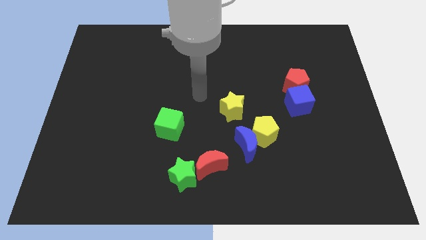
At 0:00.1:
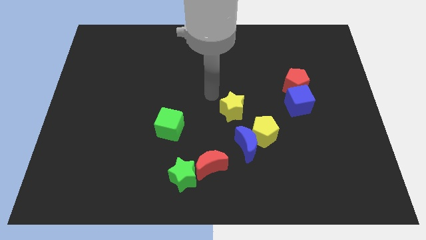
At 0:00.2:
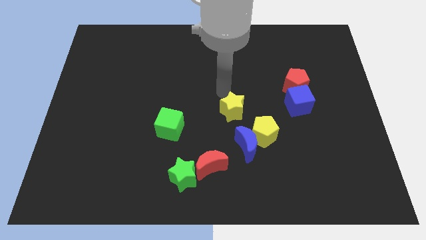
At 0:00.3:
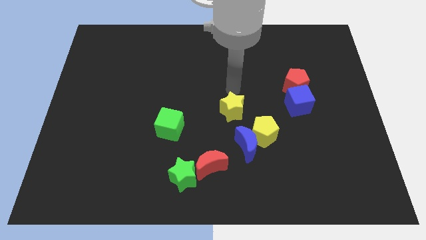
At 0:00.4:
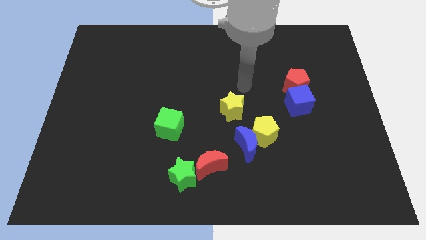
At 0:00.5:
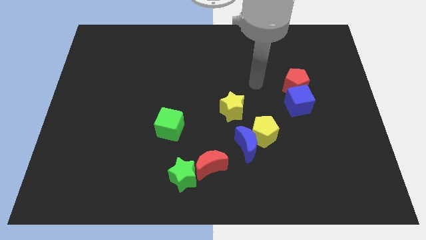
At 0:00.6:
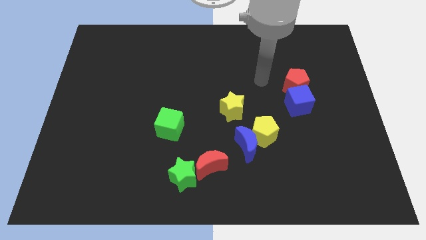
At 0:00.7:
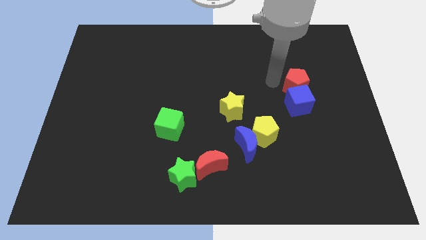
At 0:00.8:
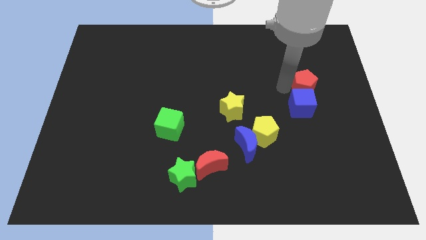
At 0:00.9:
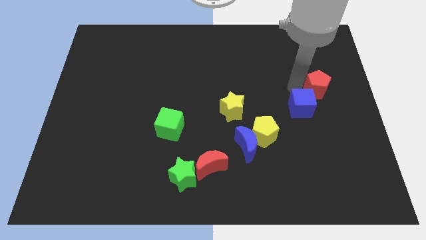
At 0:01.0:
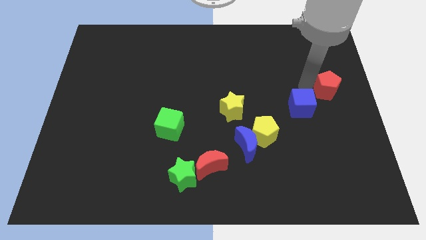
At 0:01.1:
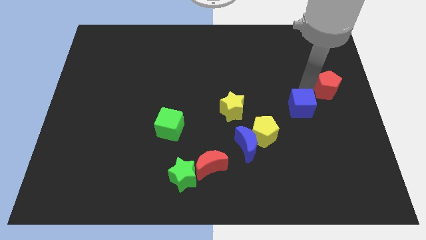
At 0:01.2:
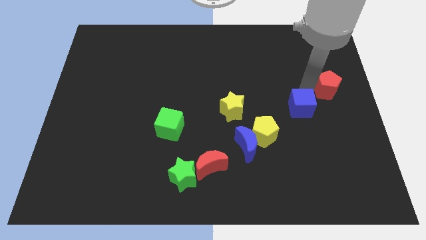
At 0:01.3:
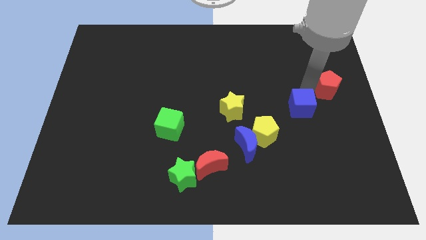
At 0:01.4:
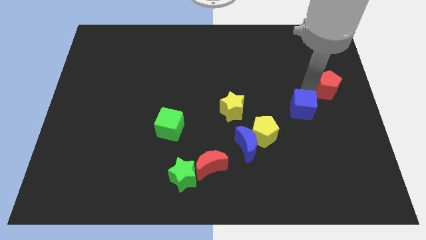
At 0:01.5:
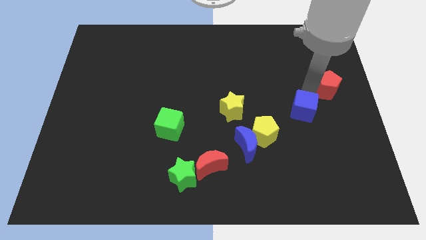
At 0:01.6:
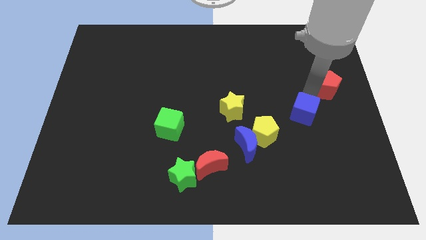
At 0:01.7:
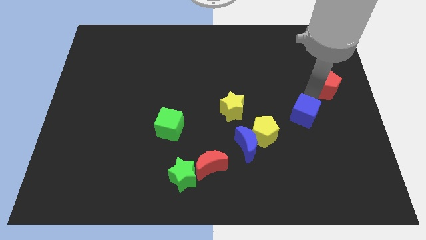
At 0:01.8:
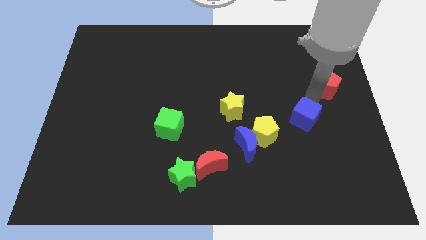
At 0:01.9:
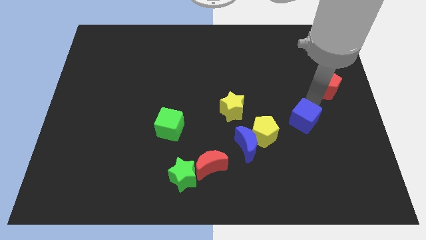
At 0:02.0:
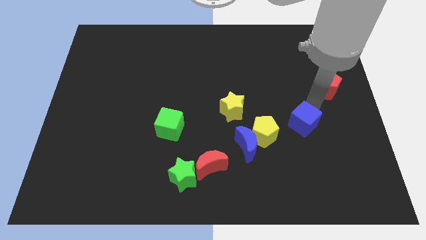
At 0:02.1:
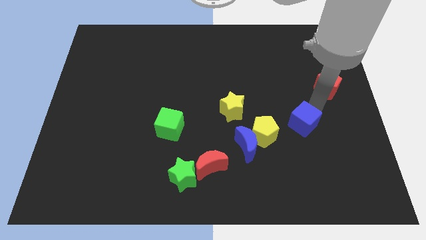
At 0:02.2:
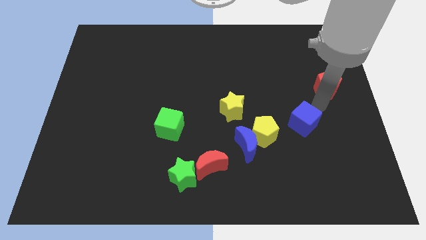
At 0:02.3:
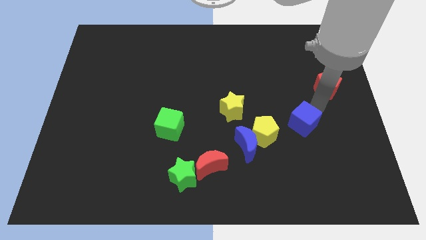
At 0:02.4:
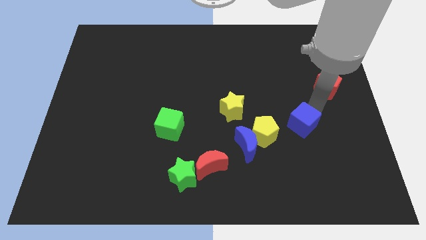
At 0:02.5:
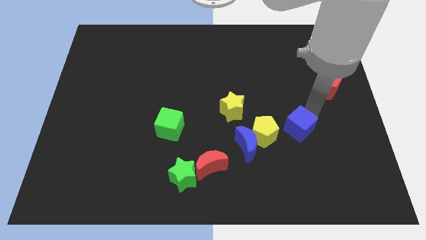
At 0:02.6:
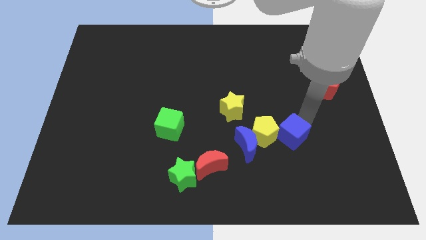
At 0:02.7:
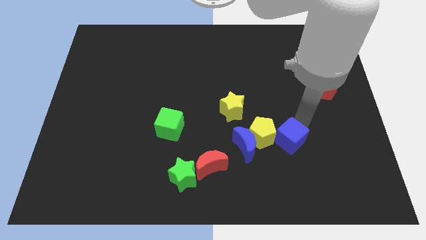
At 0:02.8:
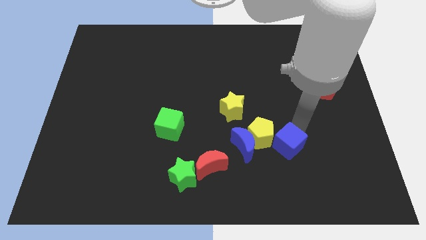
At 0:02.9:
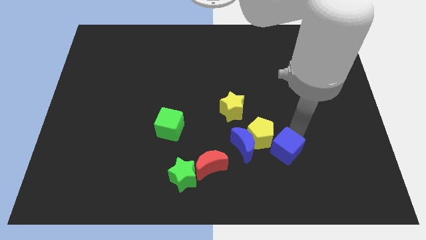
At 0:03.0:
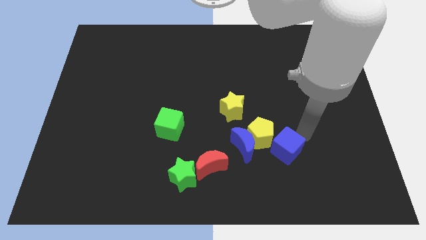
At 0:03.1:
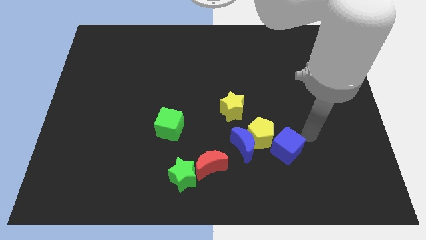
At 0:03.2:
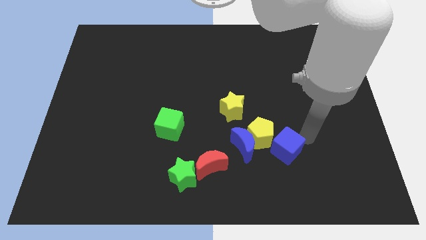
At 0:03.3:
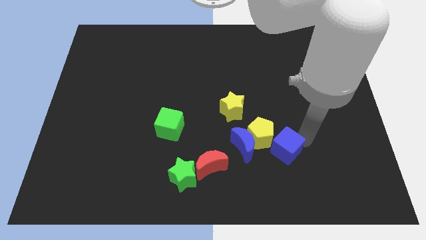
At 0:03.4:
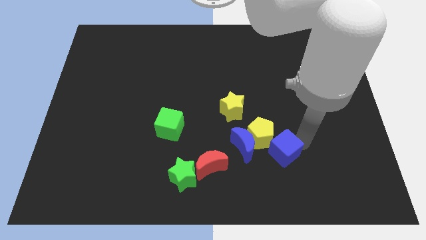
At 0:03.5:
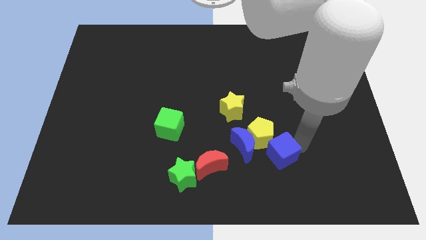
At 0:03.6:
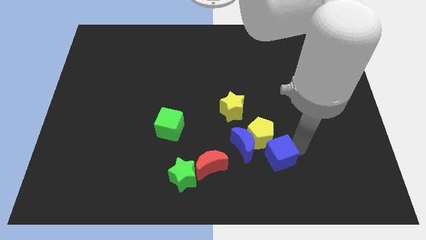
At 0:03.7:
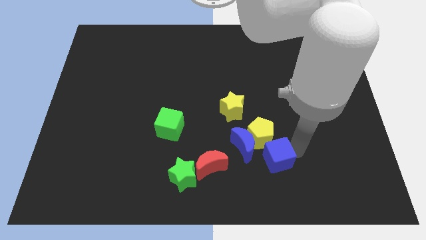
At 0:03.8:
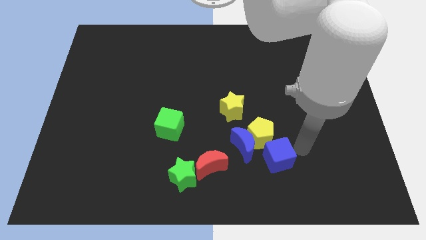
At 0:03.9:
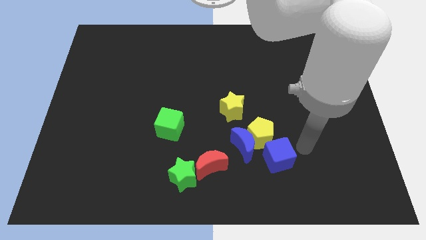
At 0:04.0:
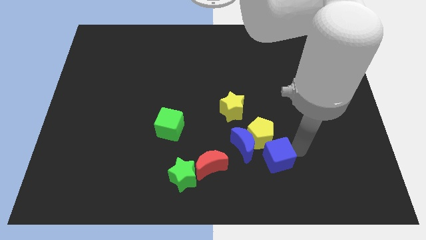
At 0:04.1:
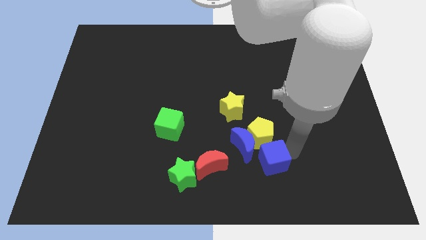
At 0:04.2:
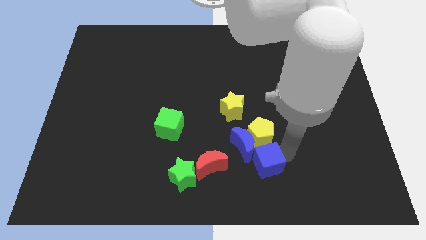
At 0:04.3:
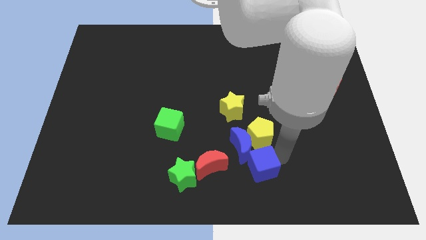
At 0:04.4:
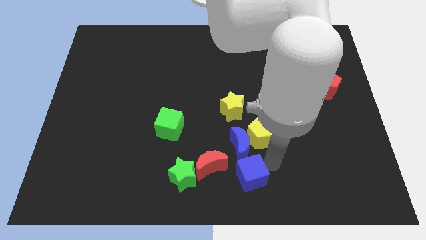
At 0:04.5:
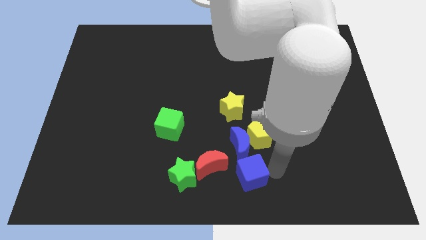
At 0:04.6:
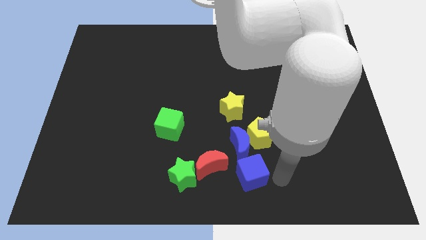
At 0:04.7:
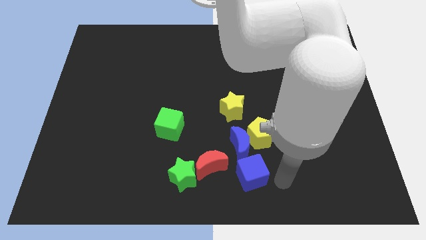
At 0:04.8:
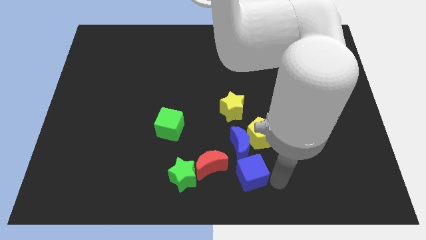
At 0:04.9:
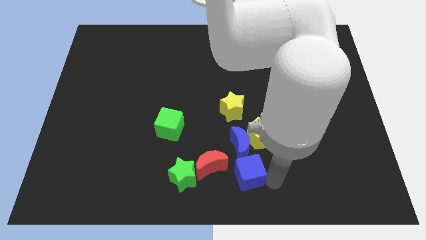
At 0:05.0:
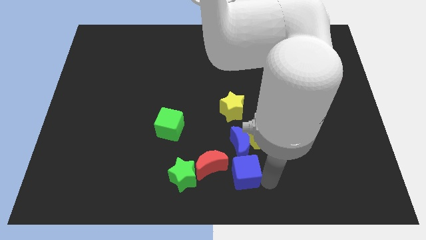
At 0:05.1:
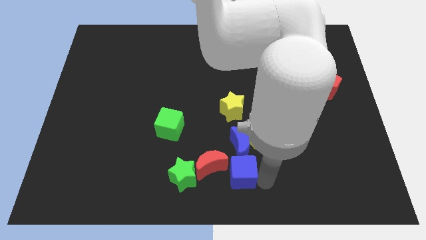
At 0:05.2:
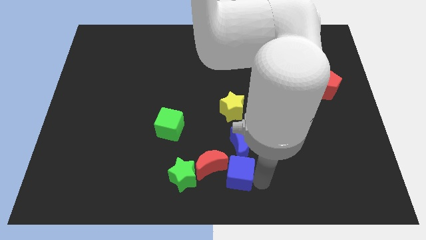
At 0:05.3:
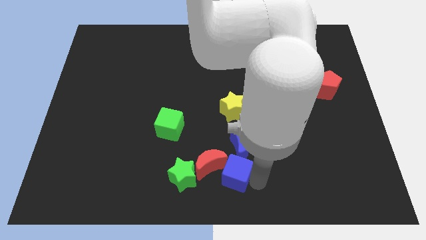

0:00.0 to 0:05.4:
move the blue cube to the red moon

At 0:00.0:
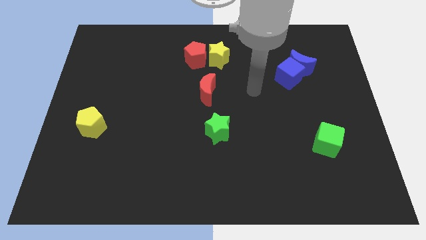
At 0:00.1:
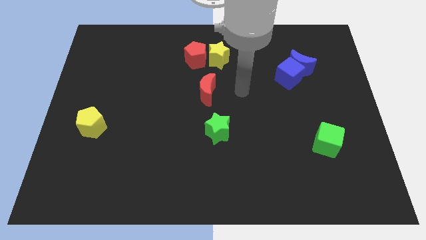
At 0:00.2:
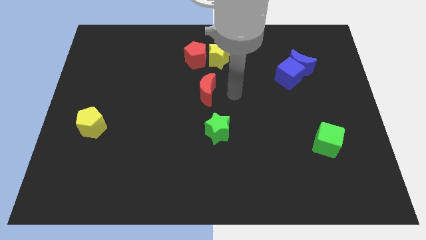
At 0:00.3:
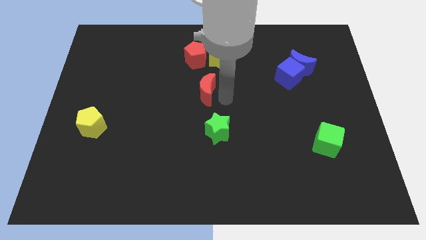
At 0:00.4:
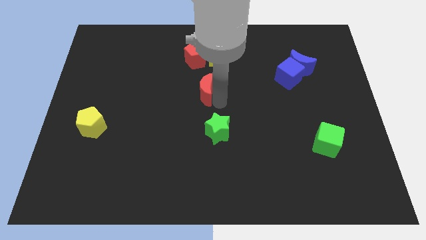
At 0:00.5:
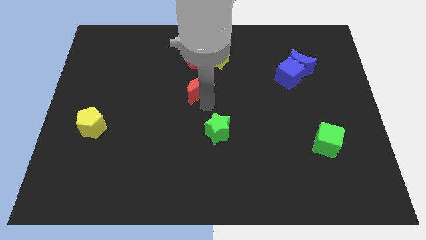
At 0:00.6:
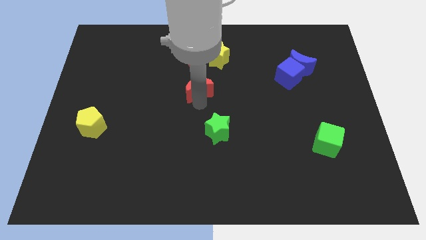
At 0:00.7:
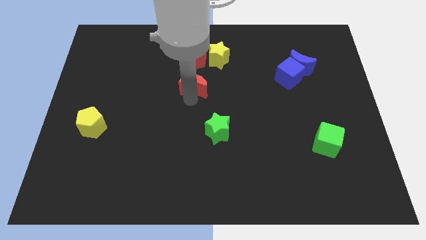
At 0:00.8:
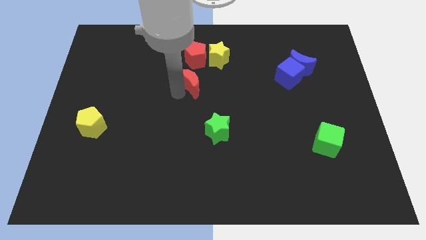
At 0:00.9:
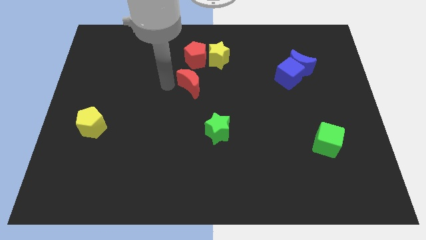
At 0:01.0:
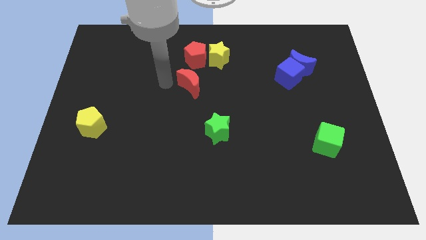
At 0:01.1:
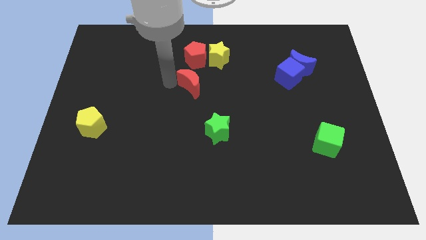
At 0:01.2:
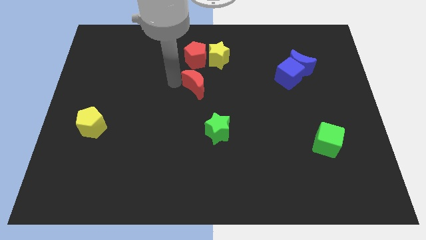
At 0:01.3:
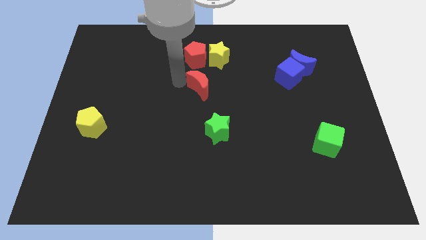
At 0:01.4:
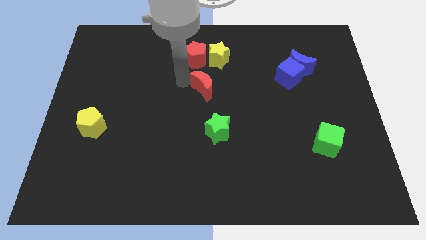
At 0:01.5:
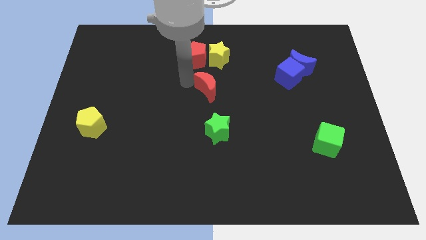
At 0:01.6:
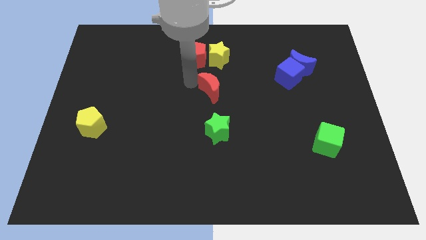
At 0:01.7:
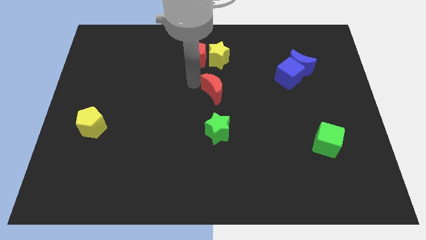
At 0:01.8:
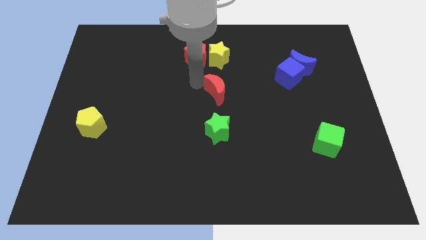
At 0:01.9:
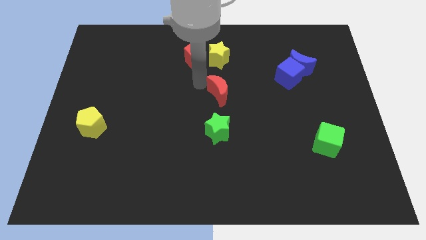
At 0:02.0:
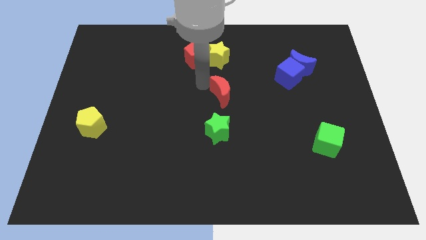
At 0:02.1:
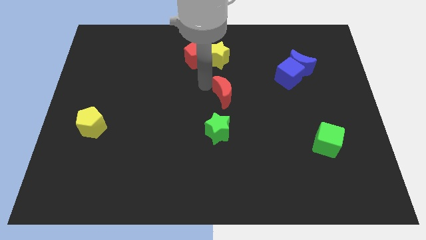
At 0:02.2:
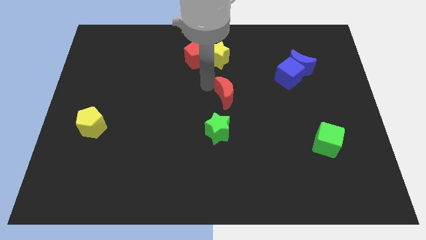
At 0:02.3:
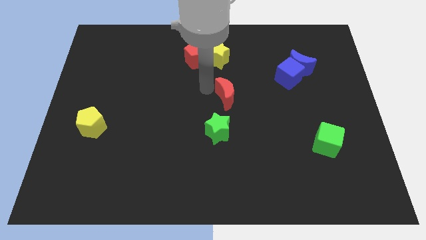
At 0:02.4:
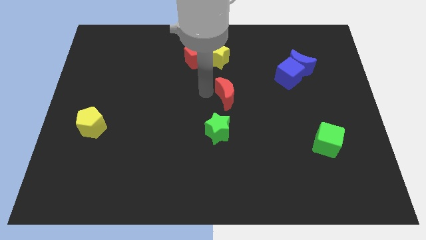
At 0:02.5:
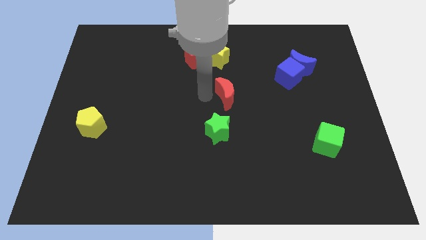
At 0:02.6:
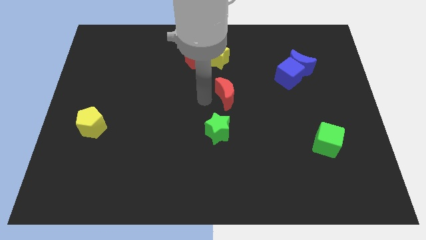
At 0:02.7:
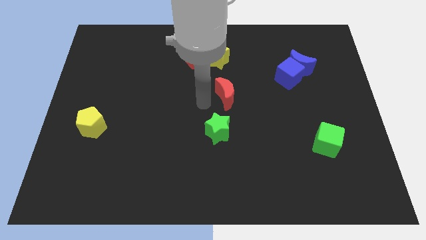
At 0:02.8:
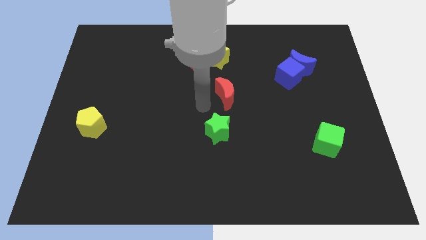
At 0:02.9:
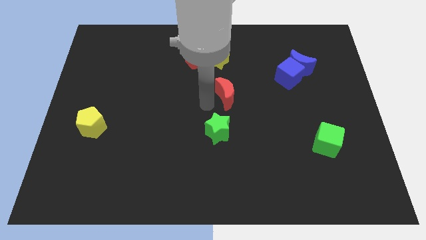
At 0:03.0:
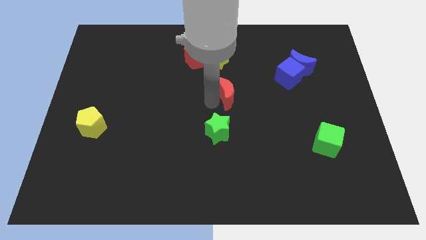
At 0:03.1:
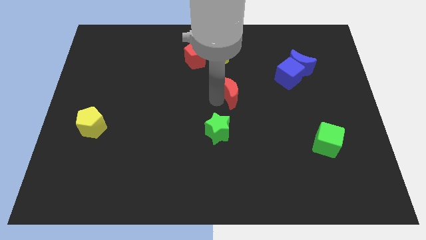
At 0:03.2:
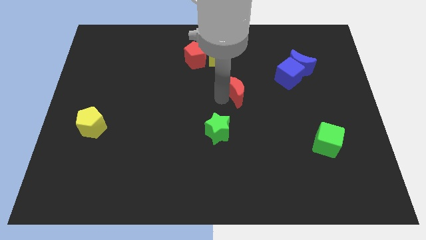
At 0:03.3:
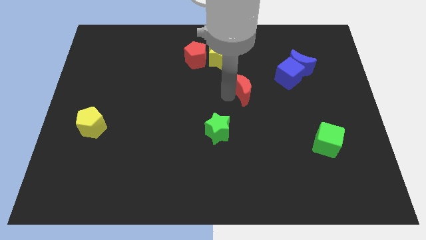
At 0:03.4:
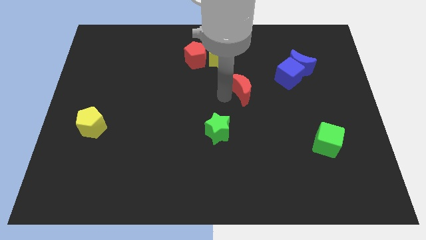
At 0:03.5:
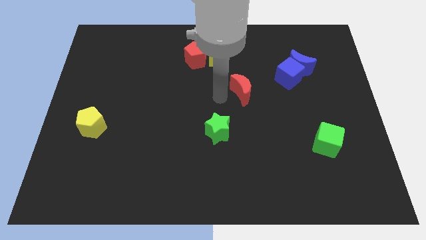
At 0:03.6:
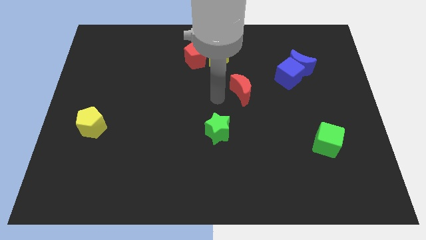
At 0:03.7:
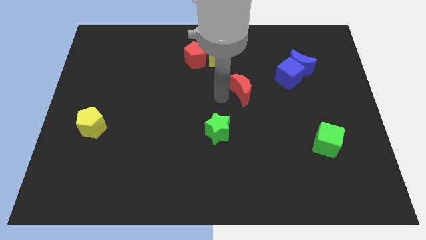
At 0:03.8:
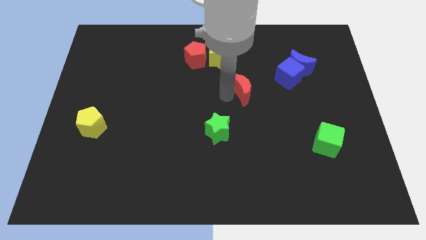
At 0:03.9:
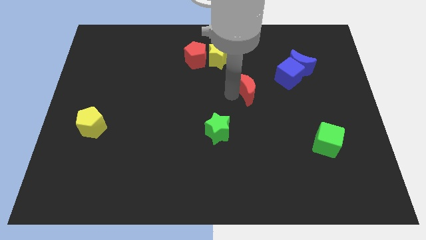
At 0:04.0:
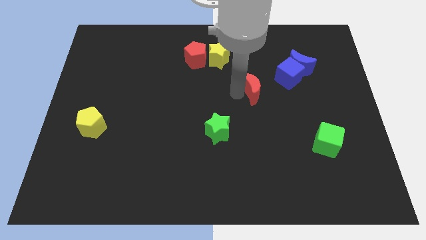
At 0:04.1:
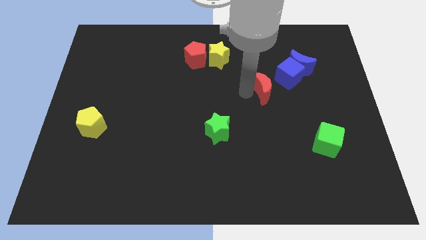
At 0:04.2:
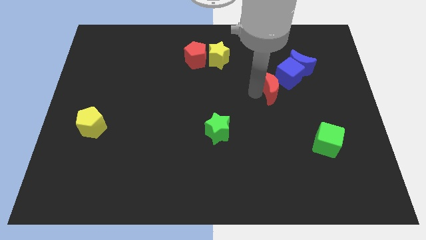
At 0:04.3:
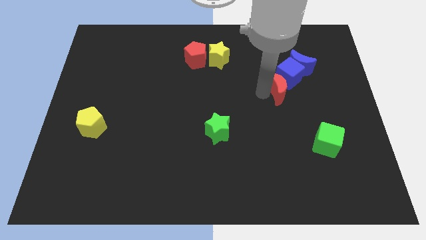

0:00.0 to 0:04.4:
move the red moon towards the blue cube
